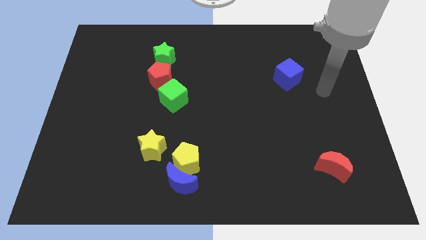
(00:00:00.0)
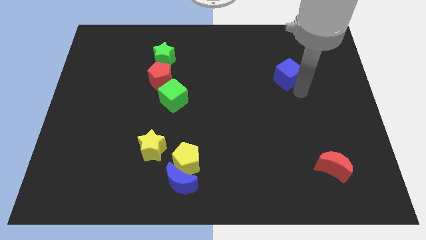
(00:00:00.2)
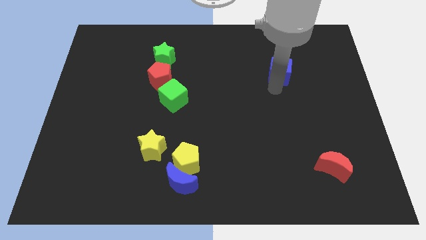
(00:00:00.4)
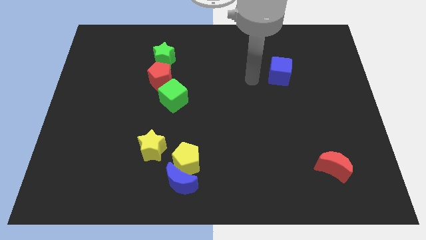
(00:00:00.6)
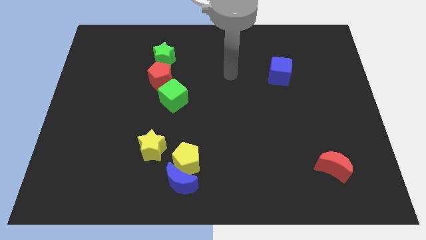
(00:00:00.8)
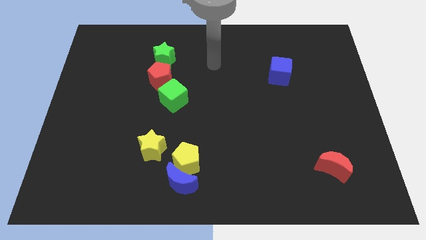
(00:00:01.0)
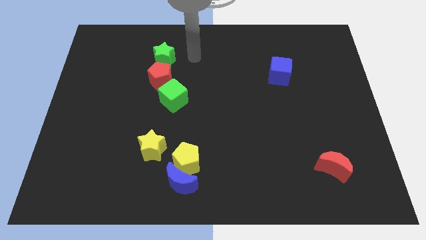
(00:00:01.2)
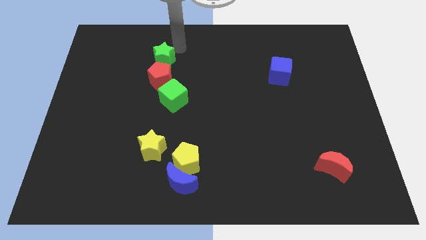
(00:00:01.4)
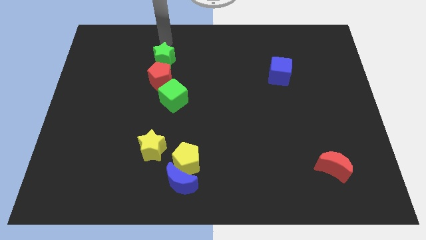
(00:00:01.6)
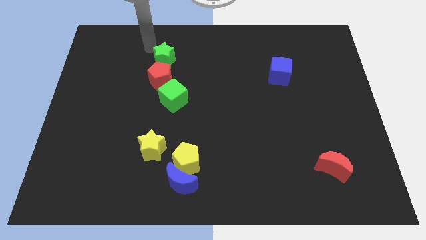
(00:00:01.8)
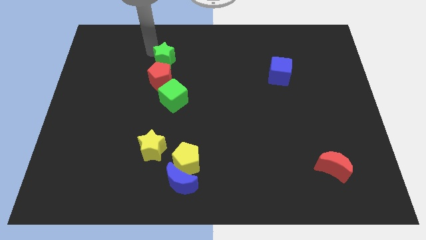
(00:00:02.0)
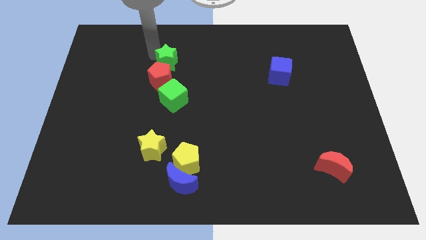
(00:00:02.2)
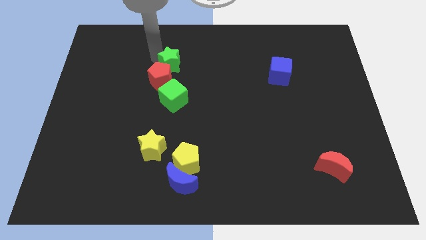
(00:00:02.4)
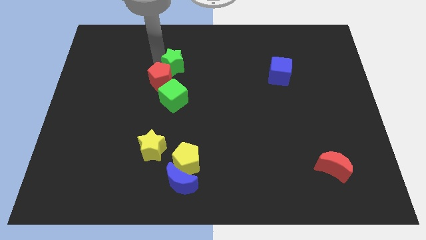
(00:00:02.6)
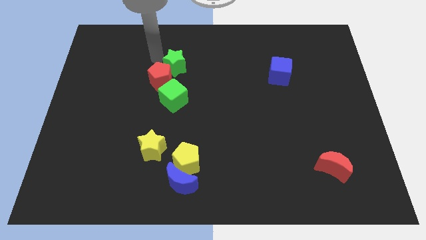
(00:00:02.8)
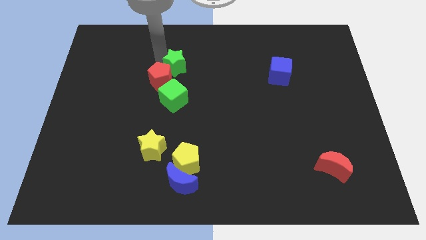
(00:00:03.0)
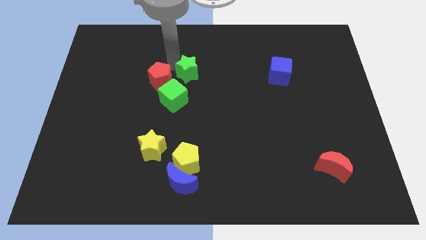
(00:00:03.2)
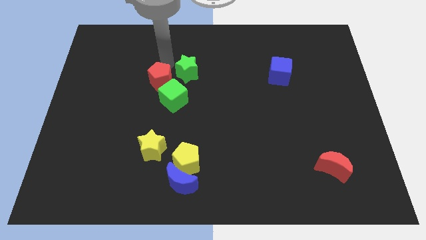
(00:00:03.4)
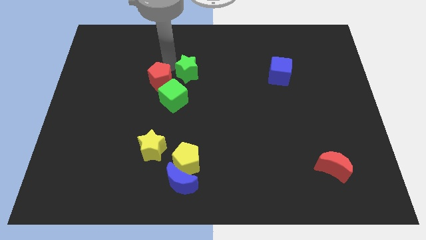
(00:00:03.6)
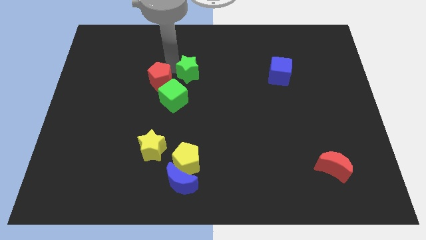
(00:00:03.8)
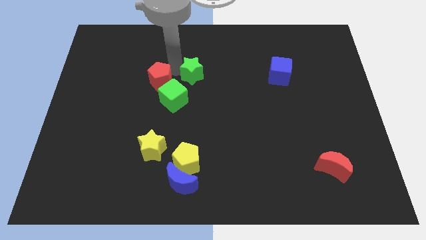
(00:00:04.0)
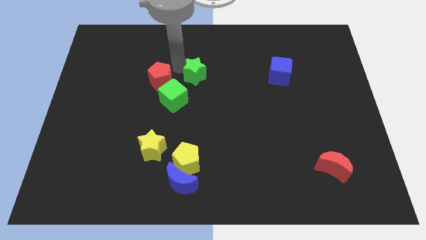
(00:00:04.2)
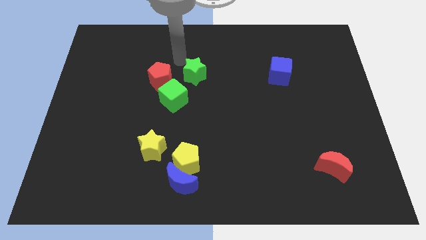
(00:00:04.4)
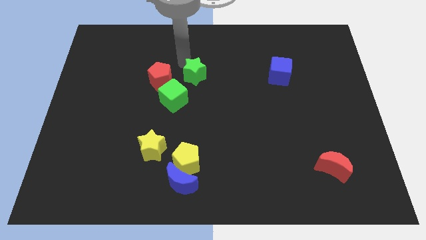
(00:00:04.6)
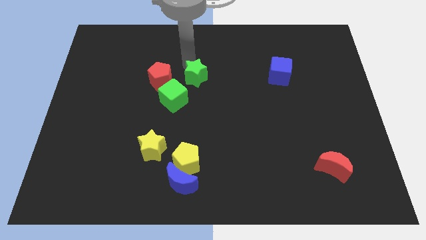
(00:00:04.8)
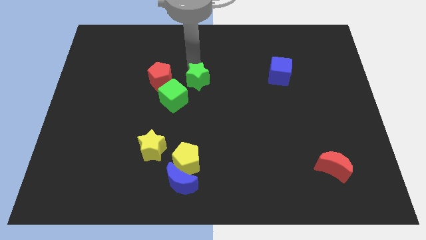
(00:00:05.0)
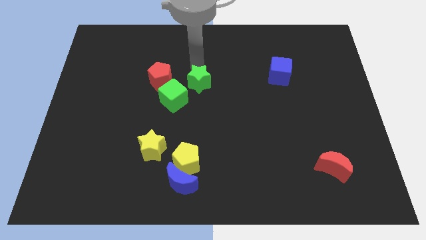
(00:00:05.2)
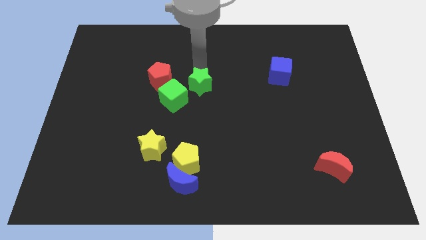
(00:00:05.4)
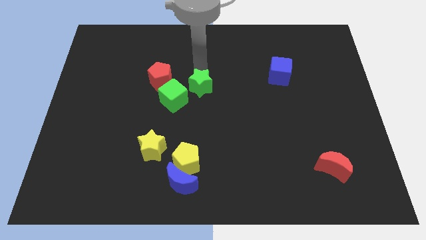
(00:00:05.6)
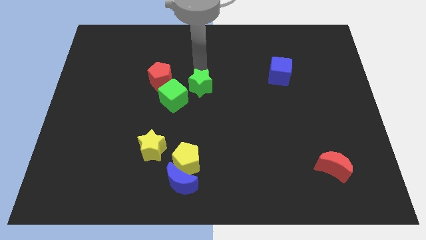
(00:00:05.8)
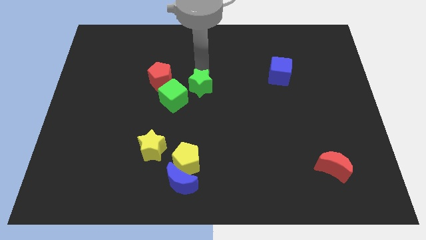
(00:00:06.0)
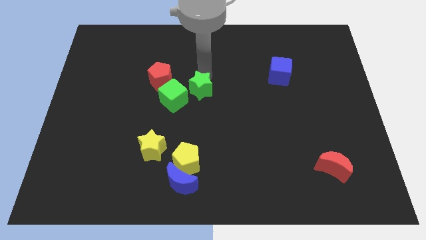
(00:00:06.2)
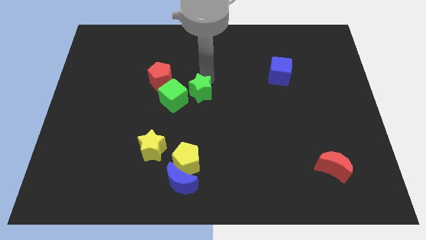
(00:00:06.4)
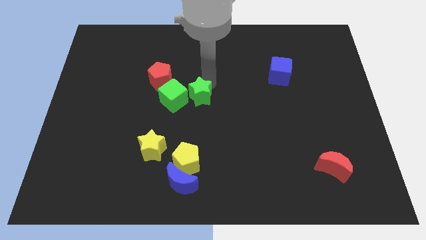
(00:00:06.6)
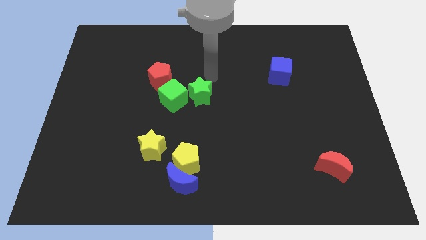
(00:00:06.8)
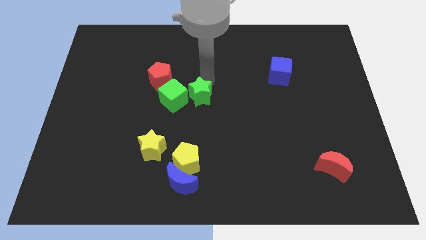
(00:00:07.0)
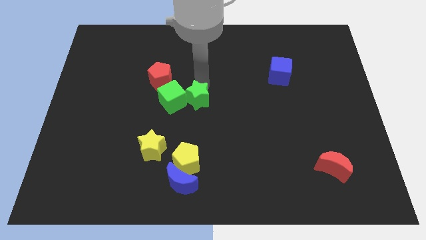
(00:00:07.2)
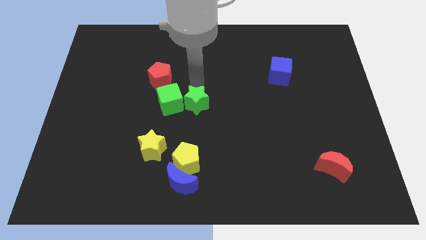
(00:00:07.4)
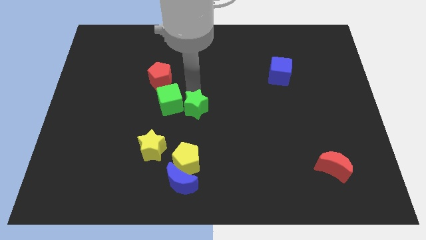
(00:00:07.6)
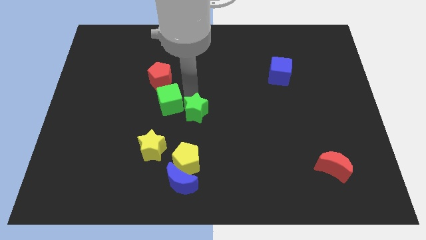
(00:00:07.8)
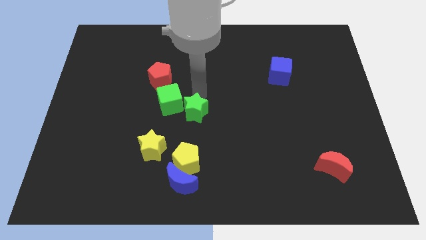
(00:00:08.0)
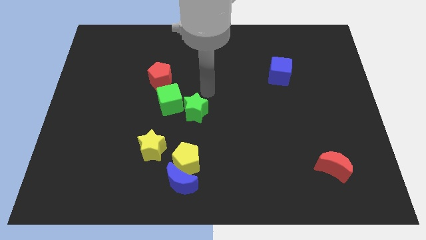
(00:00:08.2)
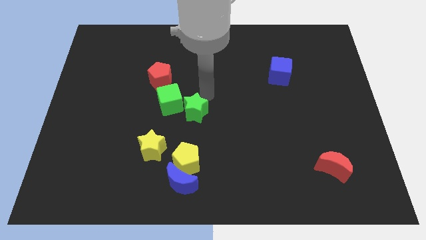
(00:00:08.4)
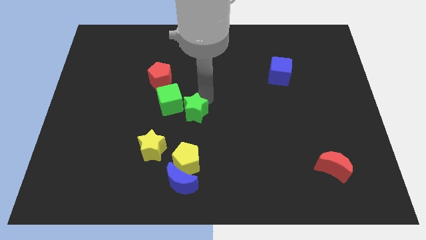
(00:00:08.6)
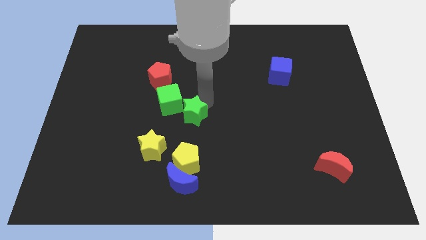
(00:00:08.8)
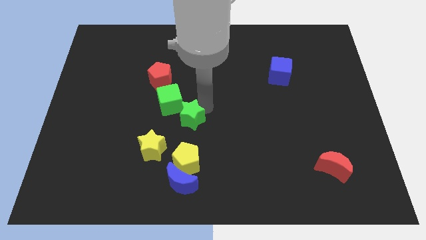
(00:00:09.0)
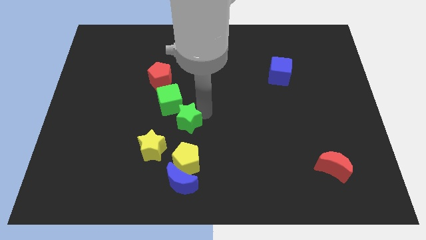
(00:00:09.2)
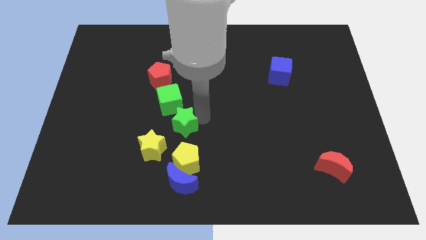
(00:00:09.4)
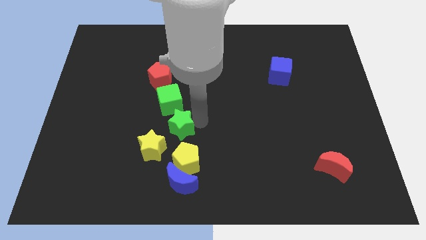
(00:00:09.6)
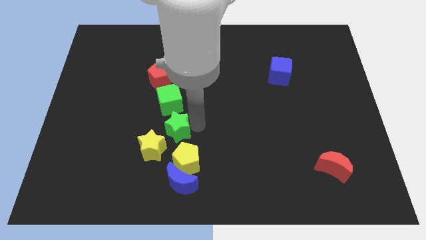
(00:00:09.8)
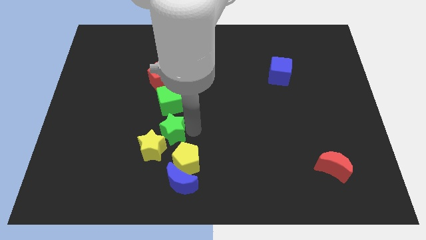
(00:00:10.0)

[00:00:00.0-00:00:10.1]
slide the green star next to the yellow star

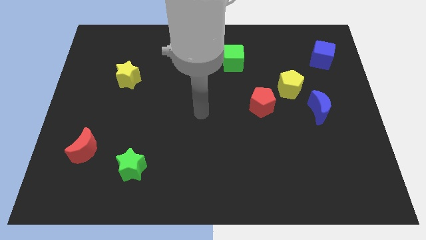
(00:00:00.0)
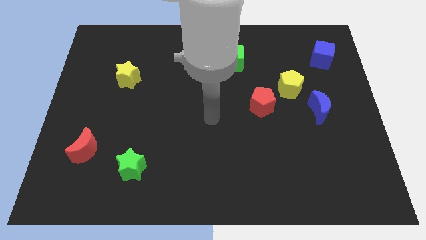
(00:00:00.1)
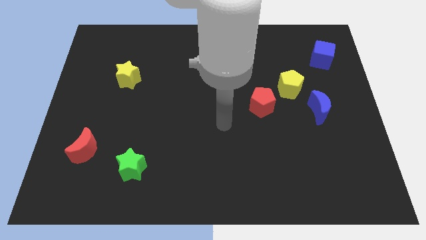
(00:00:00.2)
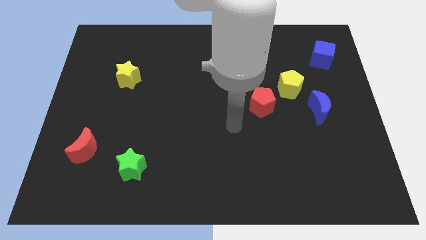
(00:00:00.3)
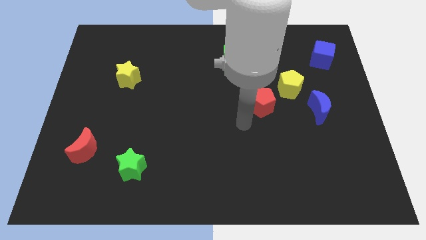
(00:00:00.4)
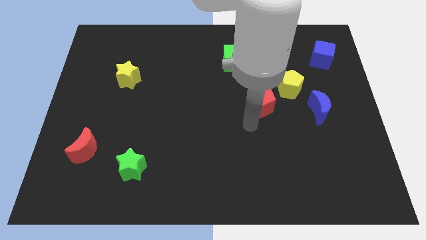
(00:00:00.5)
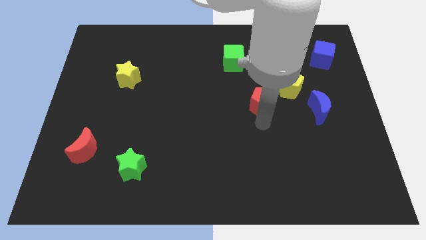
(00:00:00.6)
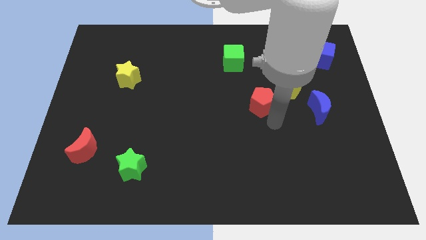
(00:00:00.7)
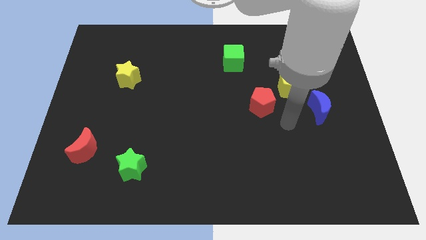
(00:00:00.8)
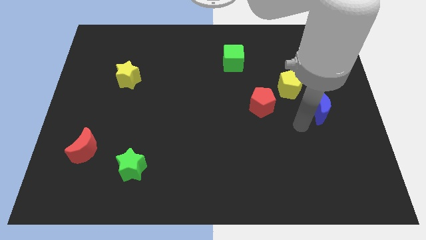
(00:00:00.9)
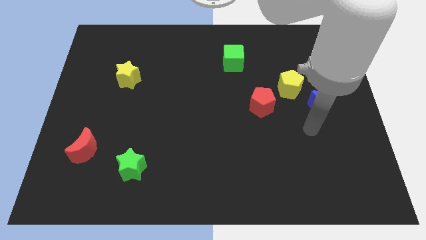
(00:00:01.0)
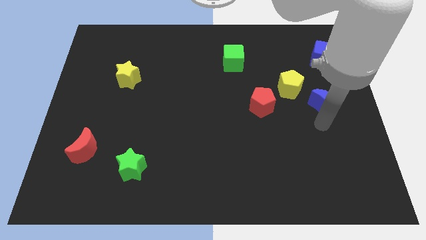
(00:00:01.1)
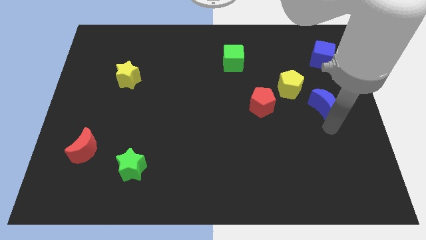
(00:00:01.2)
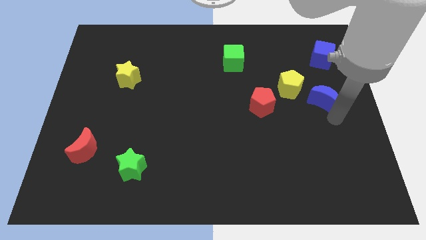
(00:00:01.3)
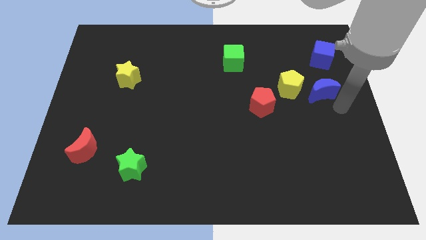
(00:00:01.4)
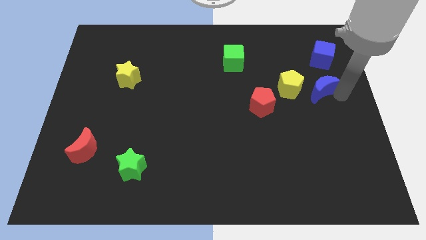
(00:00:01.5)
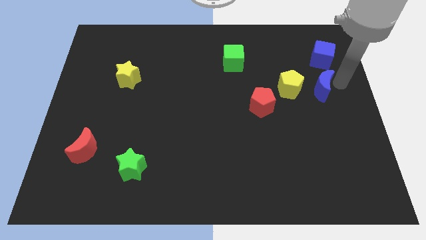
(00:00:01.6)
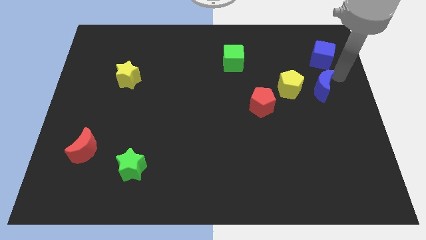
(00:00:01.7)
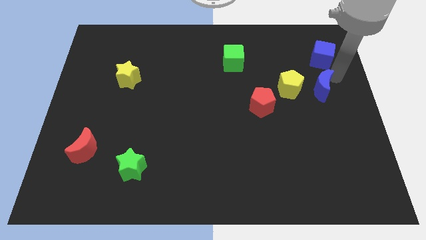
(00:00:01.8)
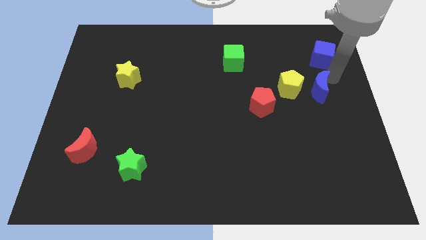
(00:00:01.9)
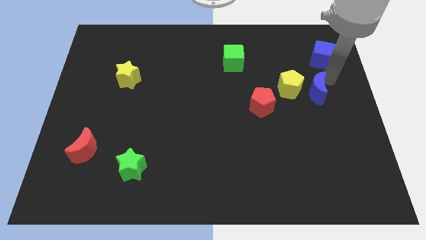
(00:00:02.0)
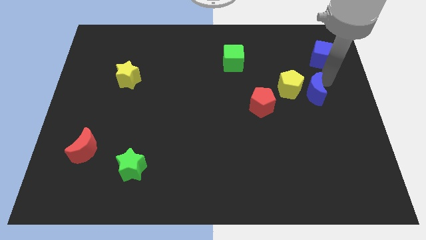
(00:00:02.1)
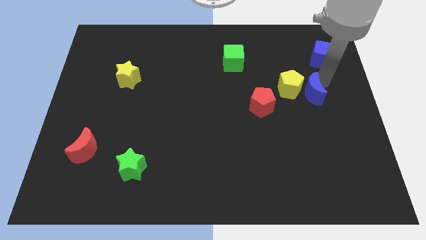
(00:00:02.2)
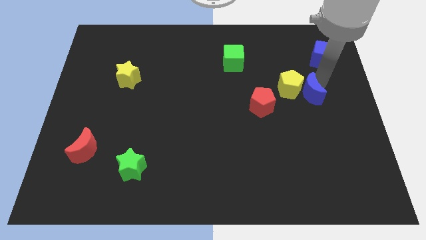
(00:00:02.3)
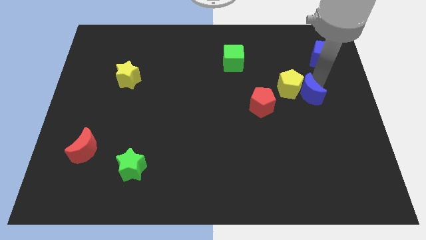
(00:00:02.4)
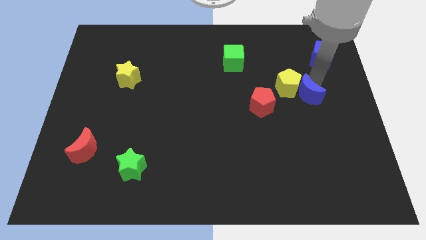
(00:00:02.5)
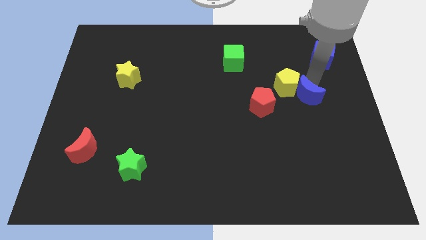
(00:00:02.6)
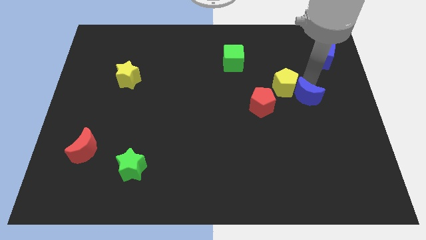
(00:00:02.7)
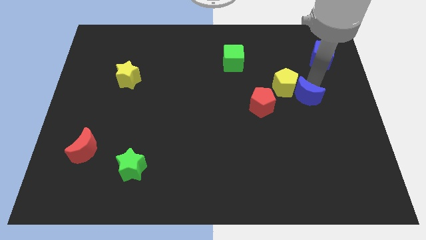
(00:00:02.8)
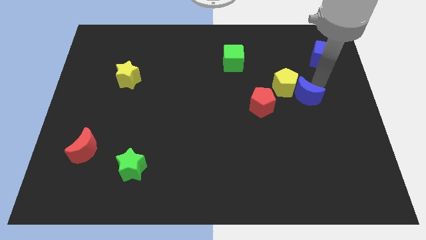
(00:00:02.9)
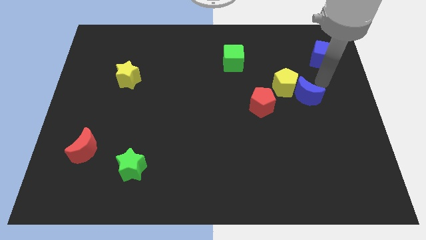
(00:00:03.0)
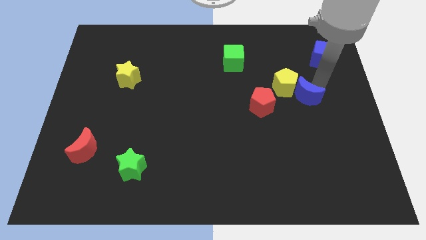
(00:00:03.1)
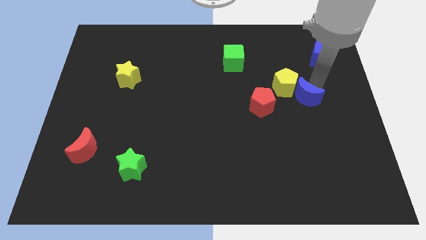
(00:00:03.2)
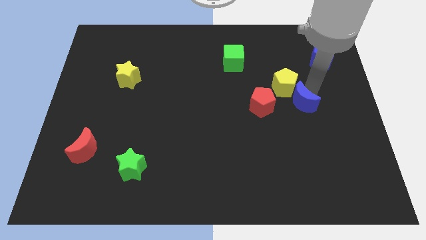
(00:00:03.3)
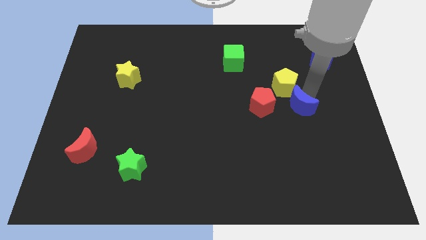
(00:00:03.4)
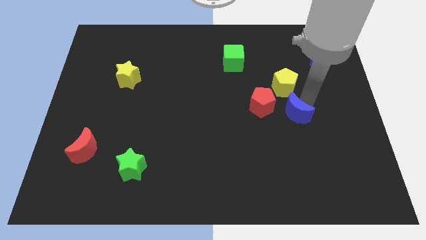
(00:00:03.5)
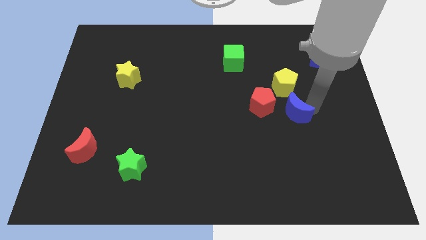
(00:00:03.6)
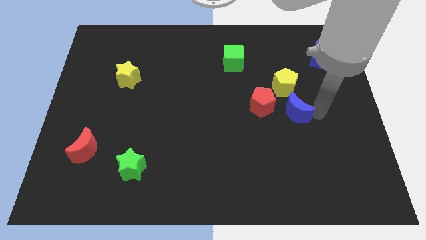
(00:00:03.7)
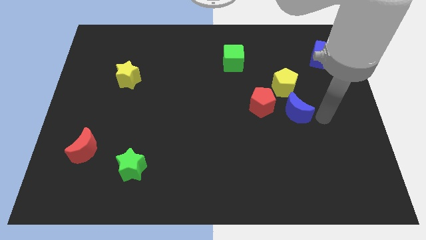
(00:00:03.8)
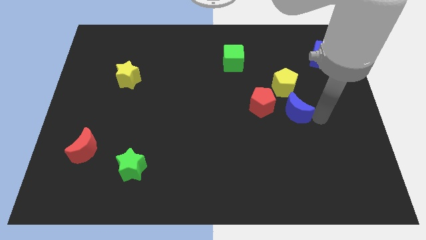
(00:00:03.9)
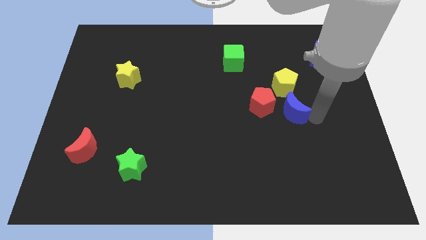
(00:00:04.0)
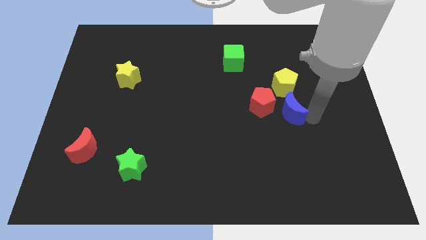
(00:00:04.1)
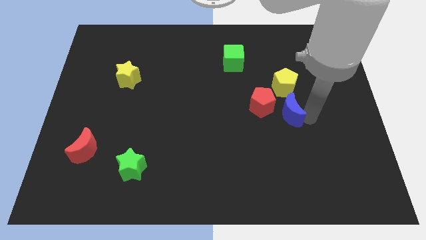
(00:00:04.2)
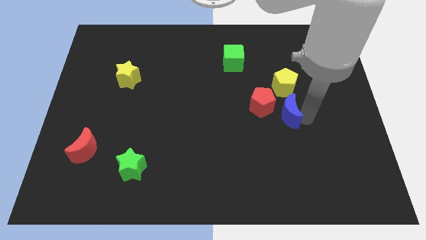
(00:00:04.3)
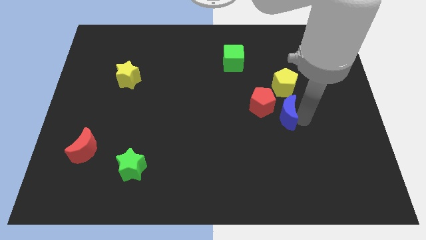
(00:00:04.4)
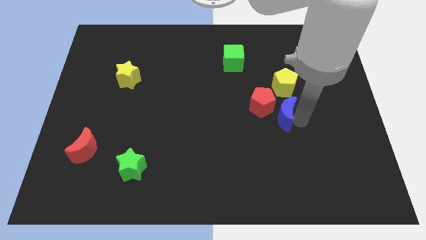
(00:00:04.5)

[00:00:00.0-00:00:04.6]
put the blue moon to the red pentagon
